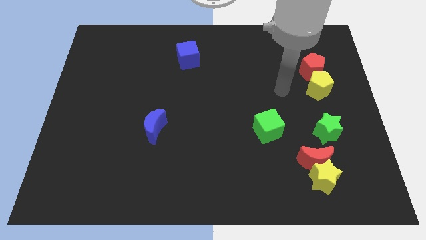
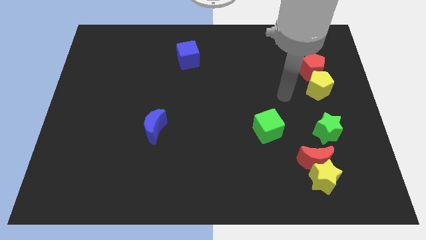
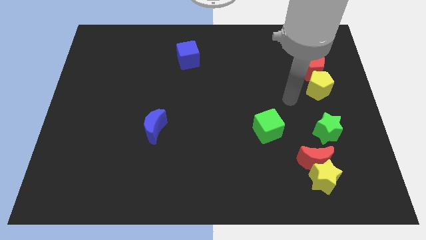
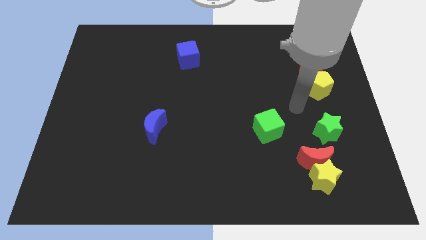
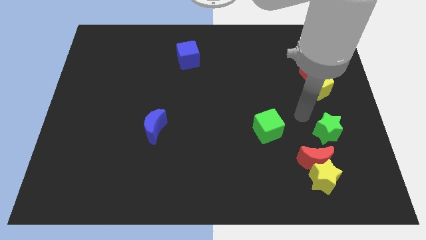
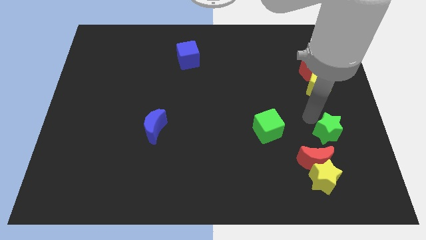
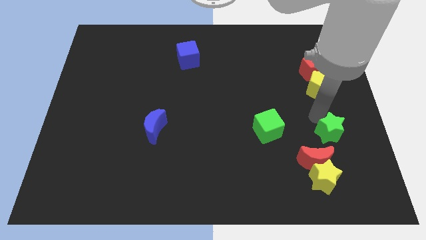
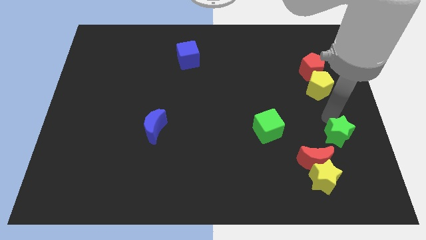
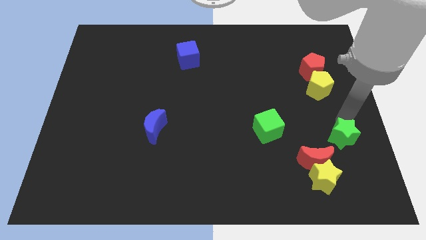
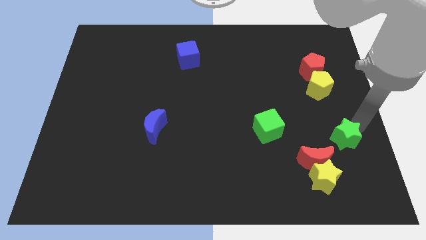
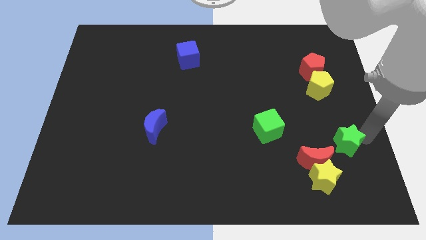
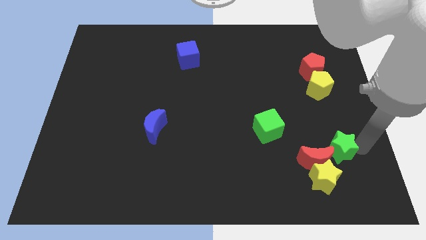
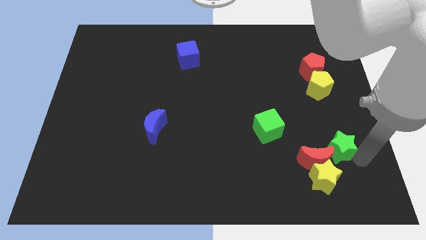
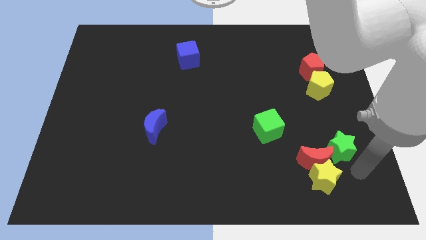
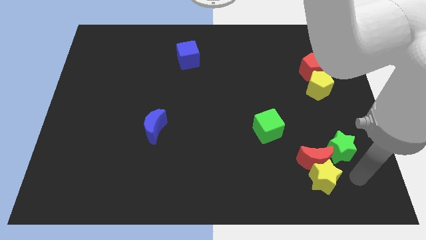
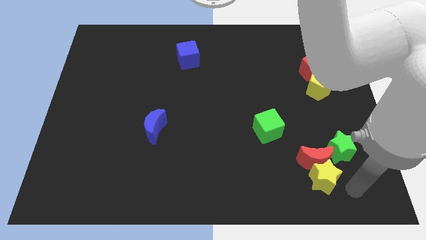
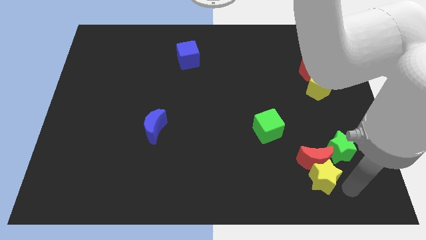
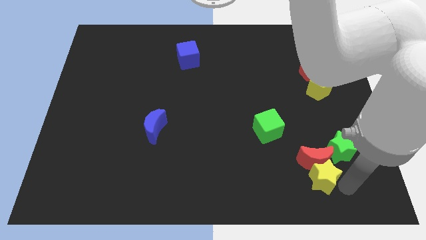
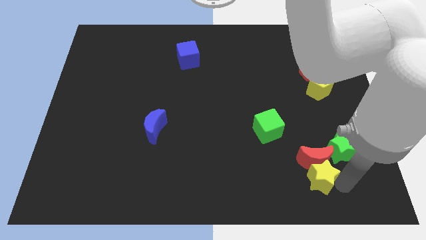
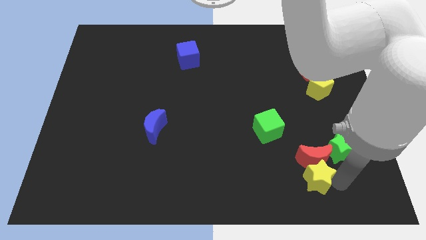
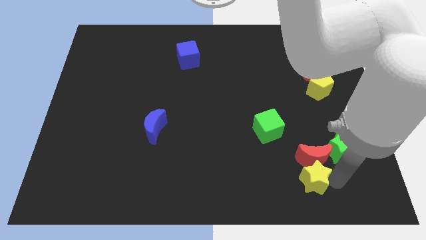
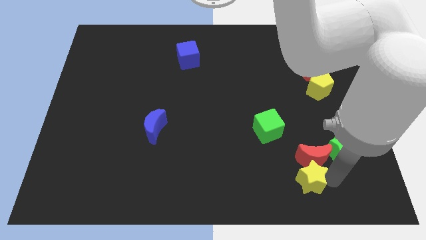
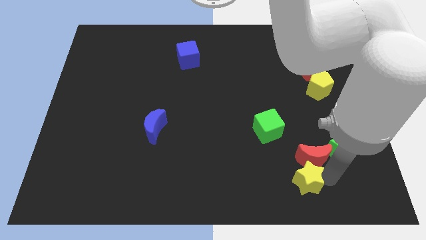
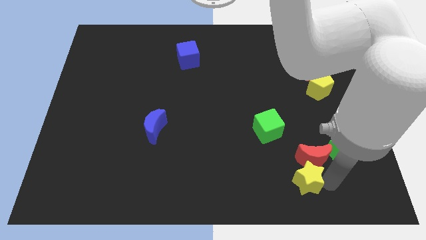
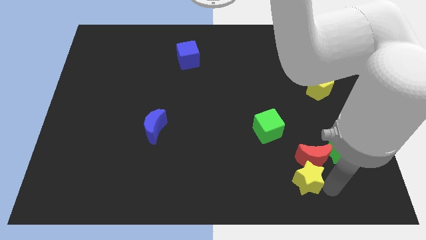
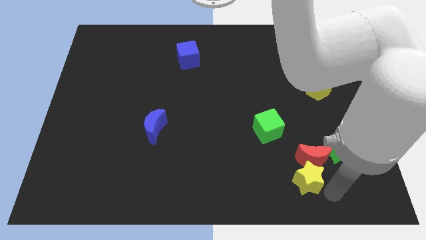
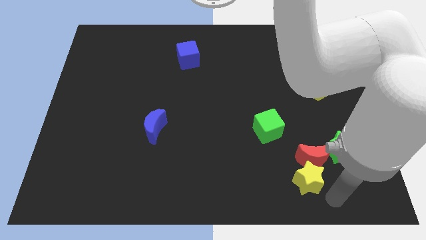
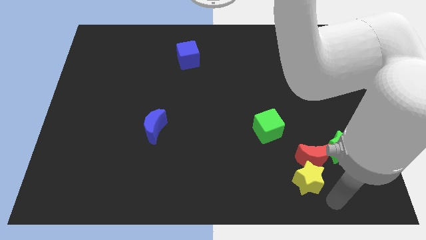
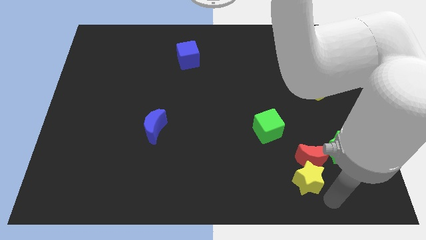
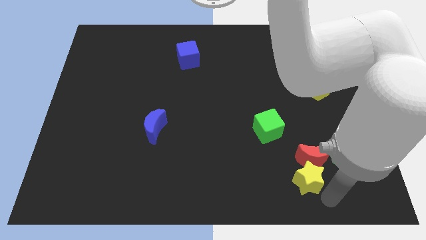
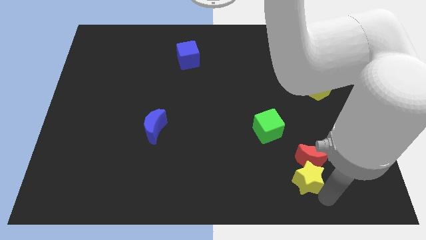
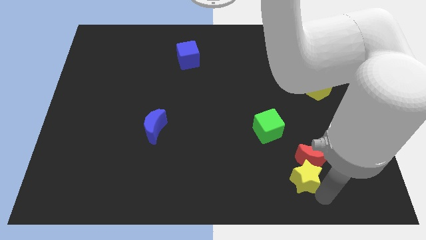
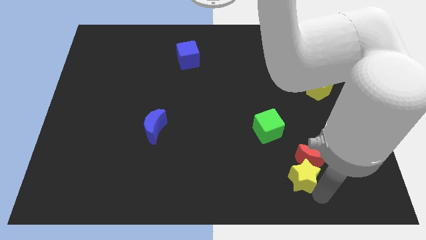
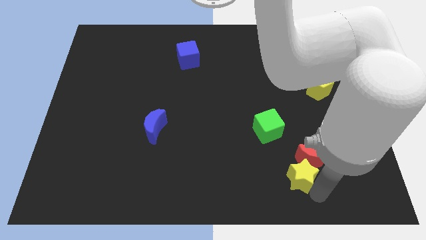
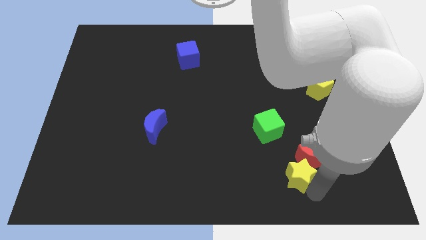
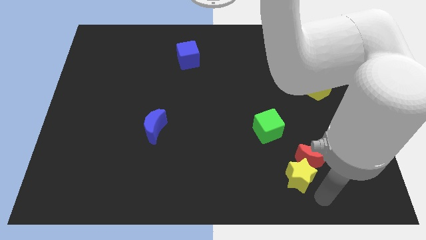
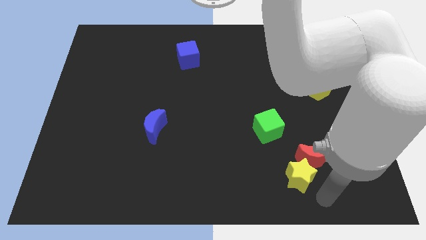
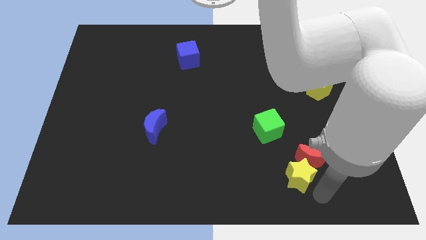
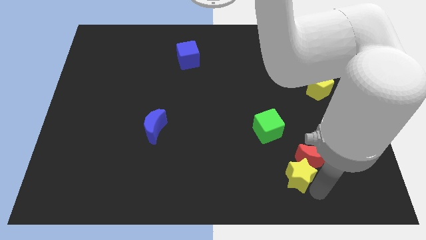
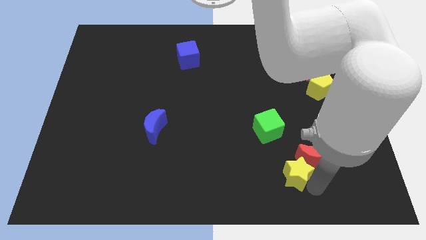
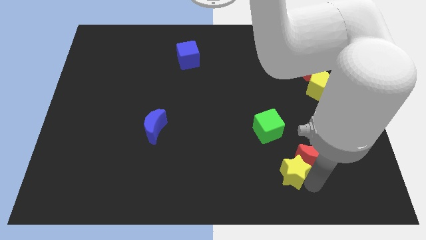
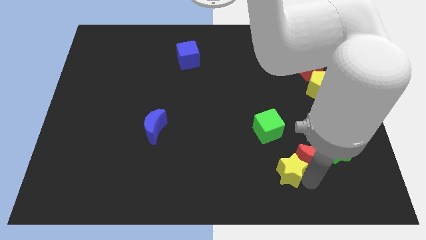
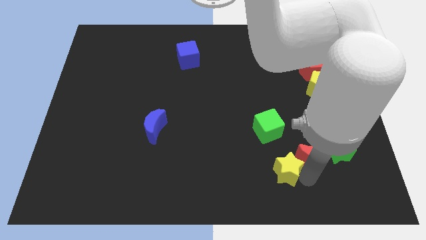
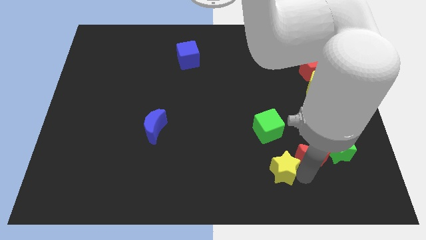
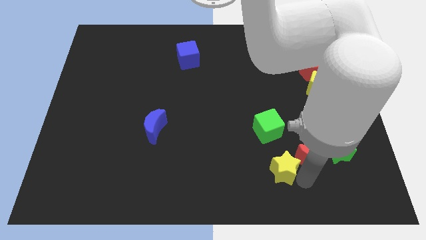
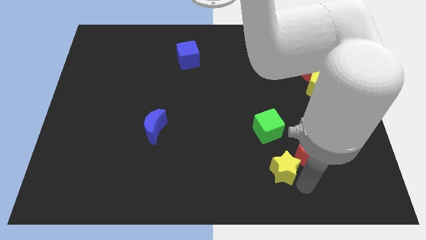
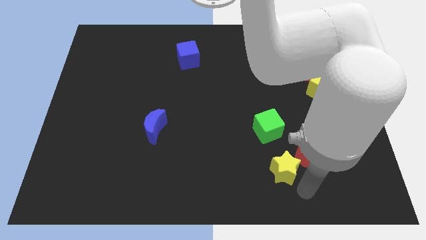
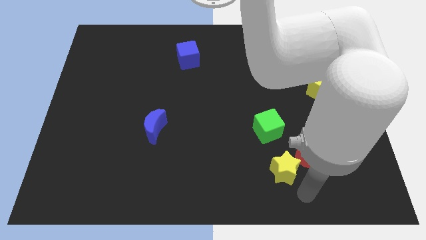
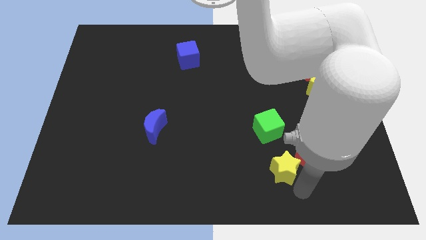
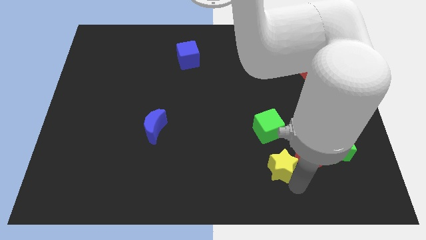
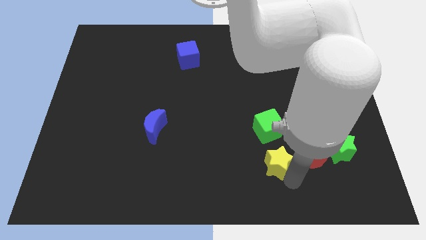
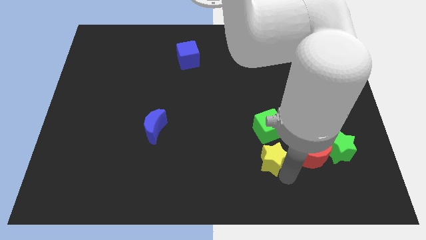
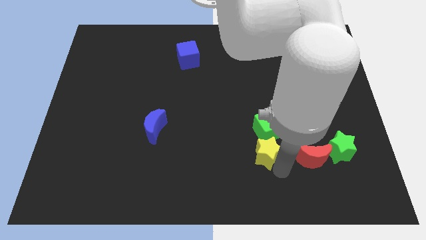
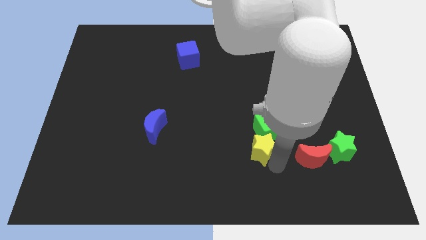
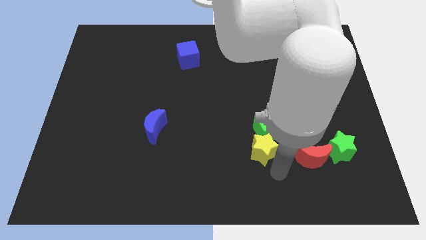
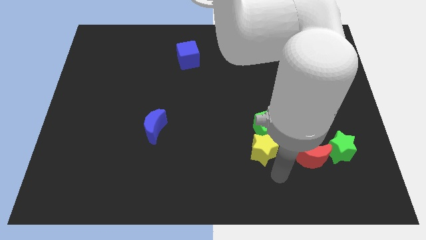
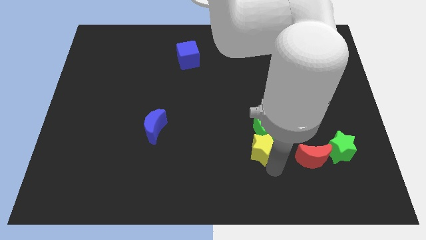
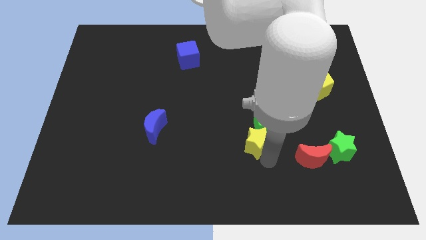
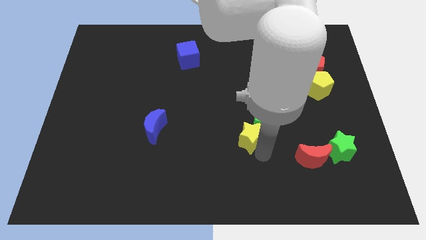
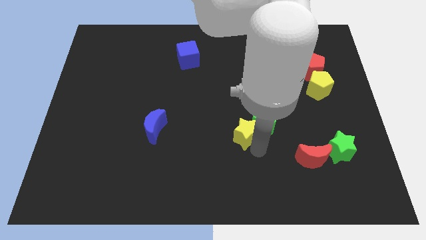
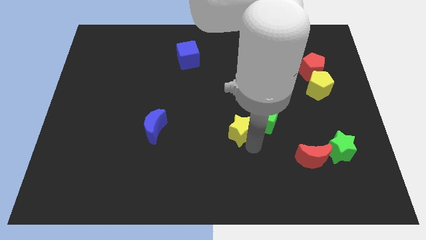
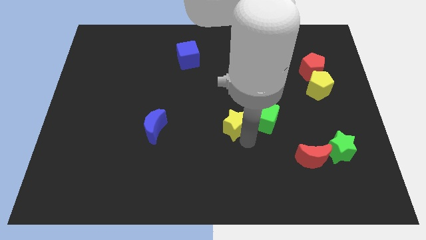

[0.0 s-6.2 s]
slide the yellow star upwards and left

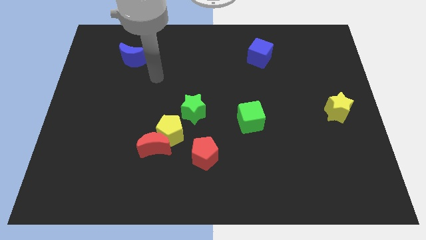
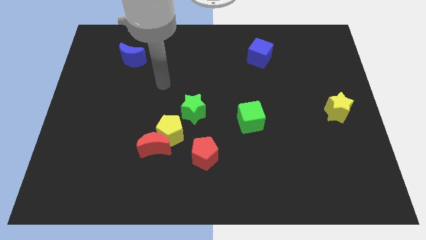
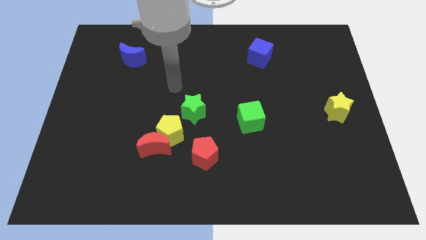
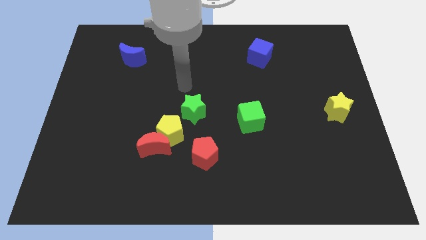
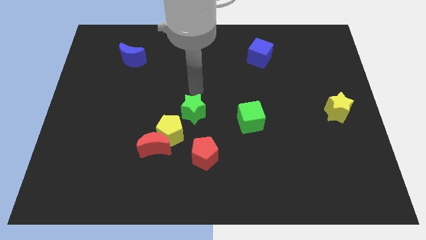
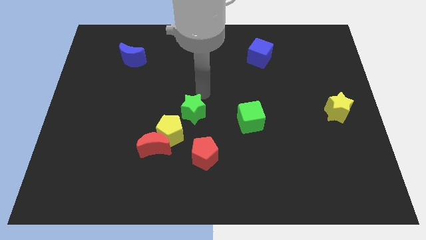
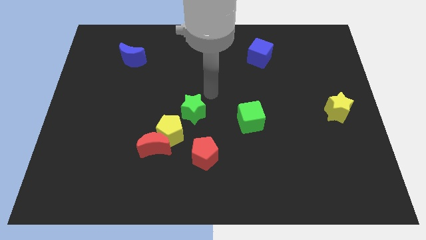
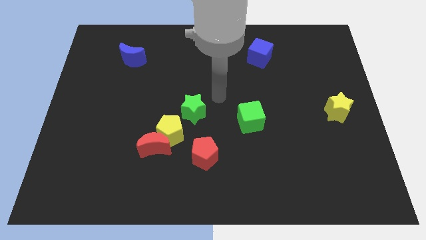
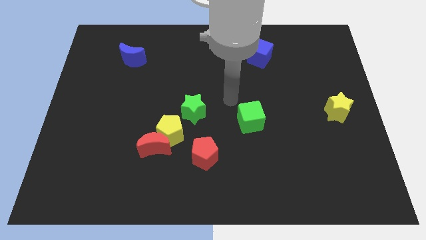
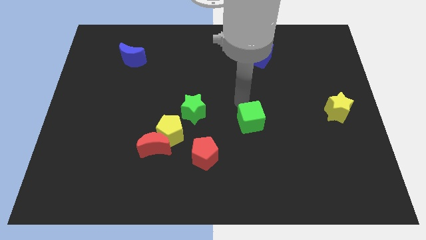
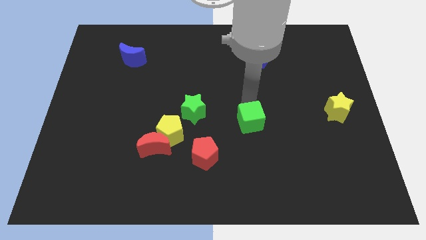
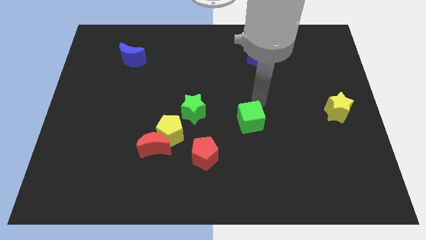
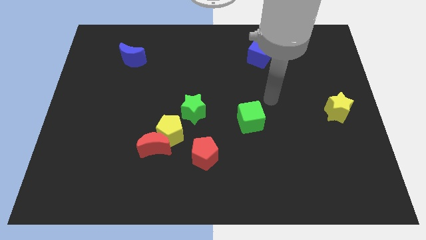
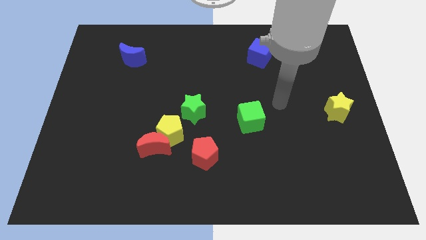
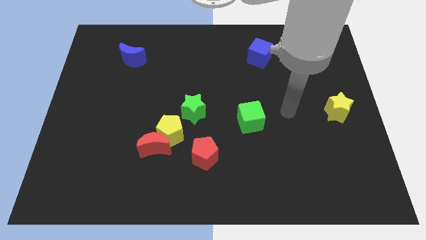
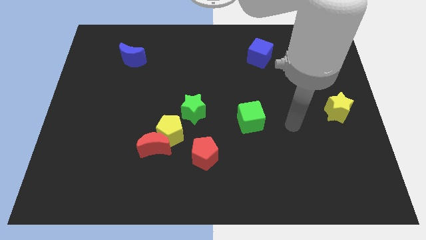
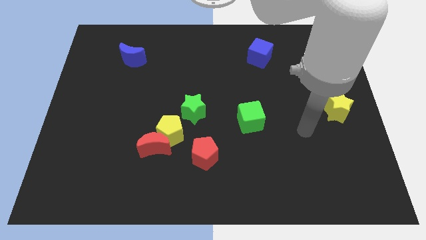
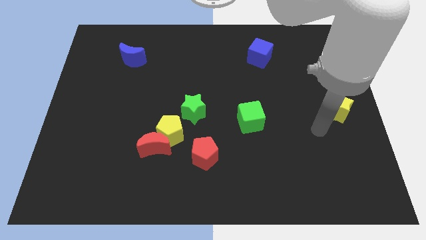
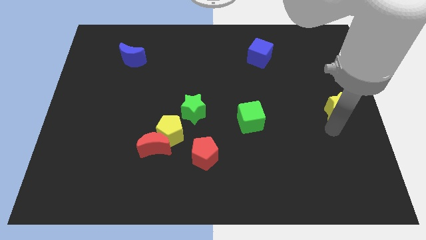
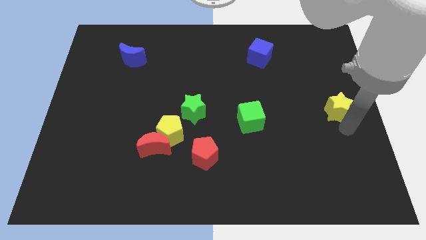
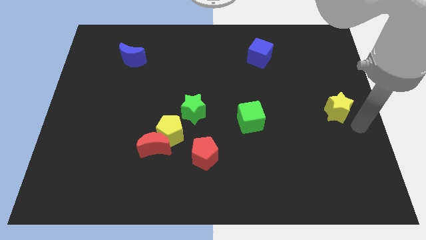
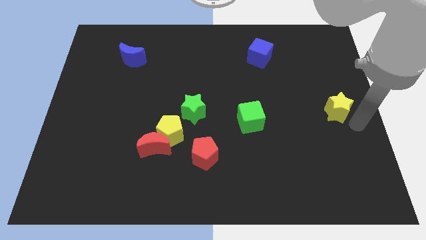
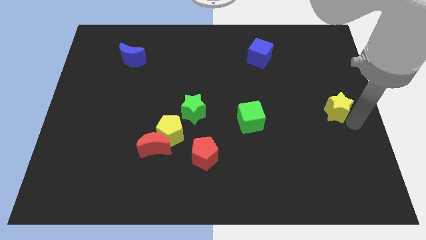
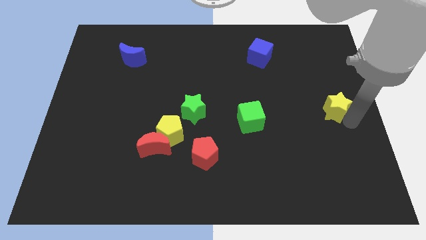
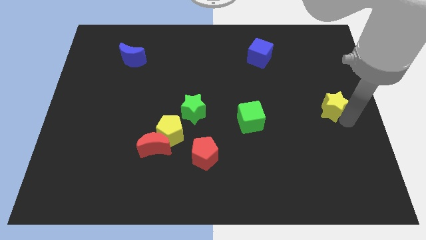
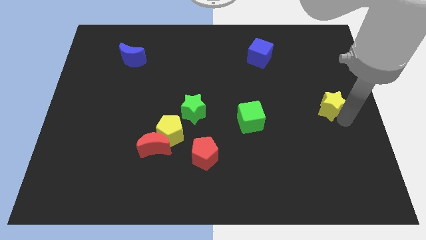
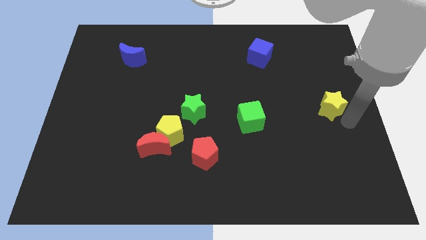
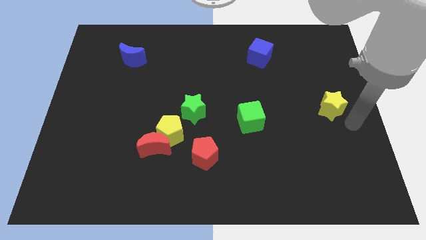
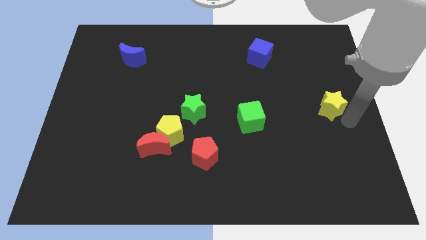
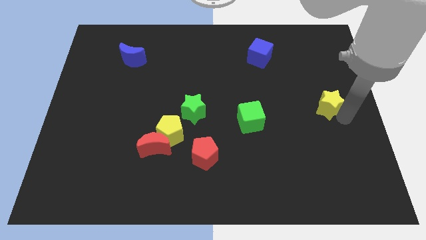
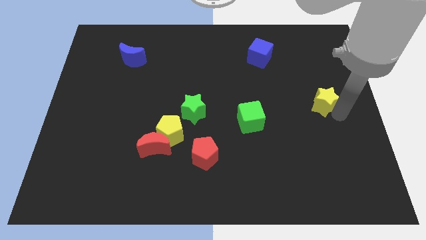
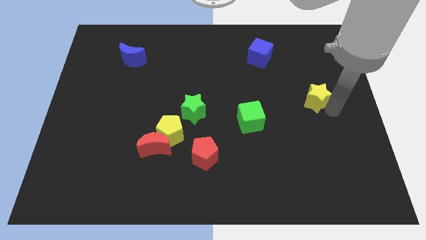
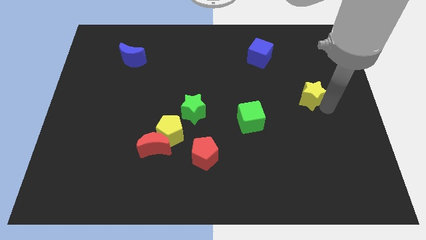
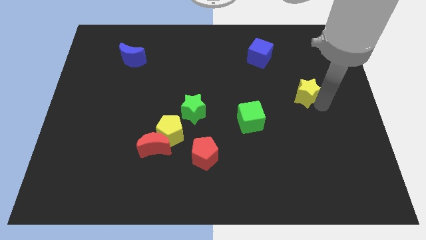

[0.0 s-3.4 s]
slide the yellow star upwards and to the left a little bit
